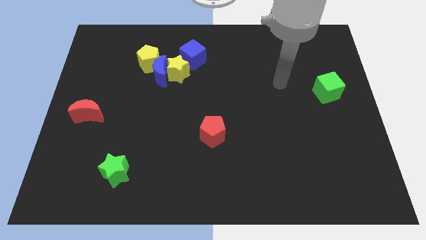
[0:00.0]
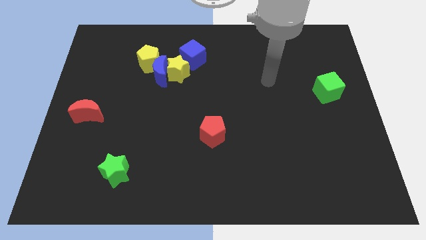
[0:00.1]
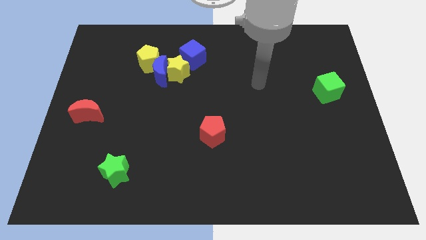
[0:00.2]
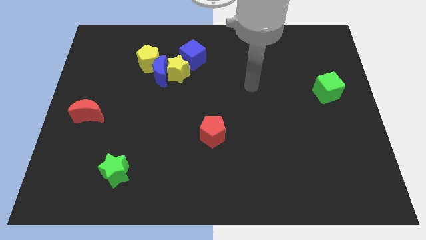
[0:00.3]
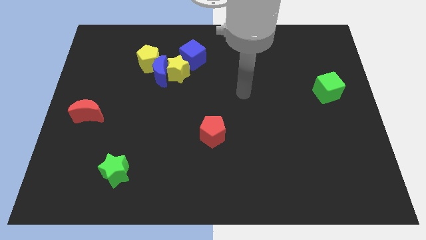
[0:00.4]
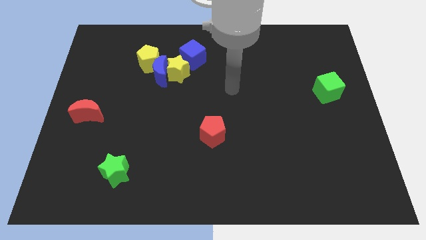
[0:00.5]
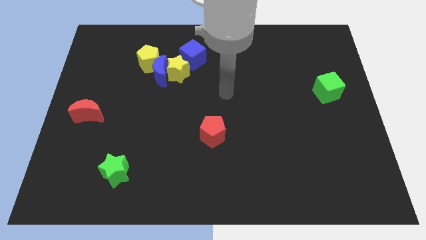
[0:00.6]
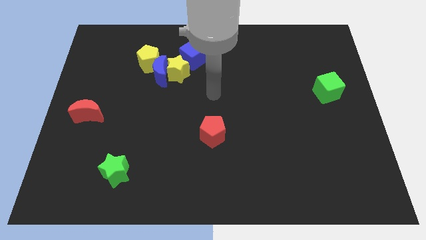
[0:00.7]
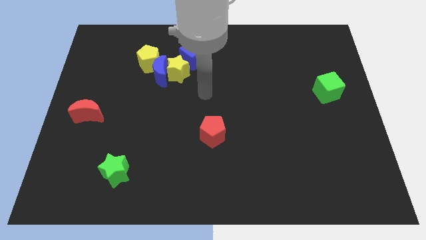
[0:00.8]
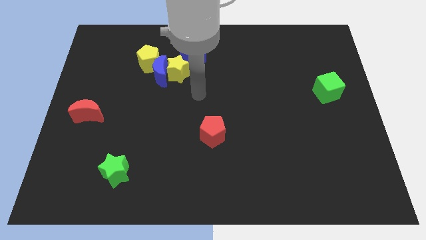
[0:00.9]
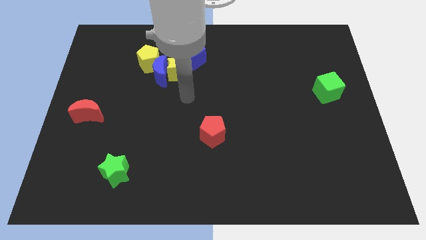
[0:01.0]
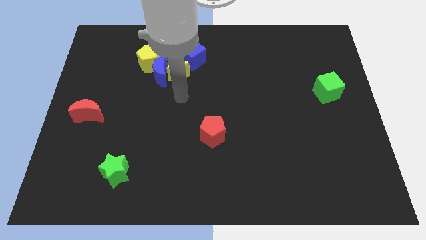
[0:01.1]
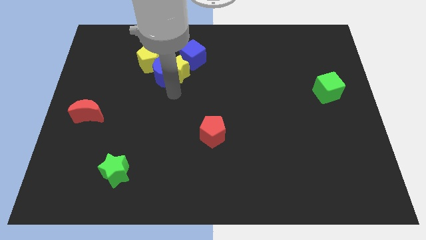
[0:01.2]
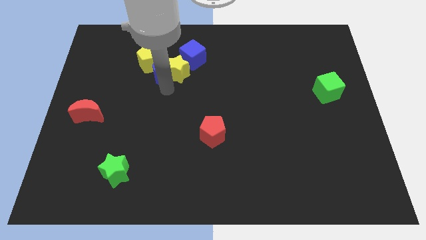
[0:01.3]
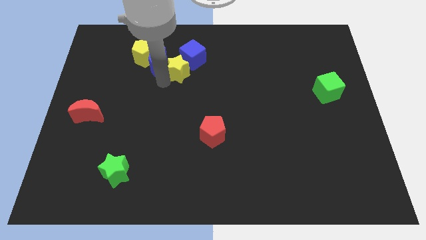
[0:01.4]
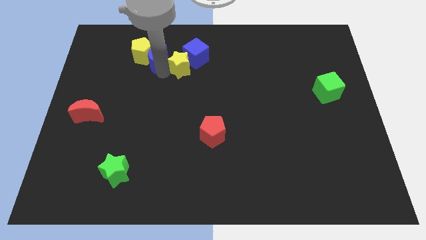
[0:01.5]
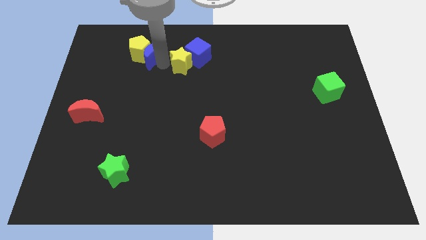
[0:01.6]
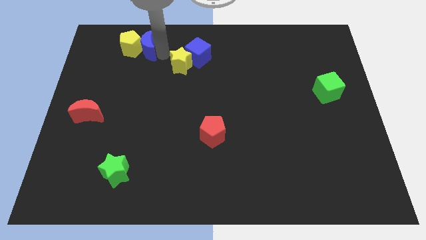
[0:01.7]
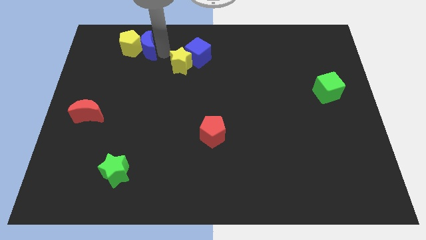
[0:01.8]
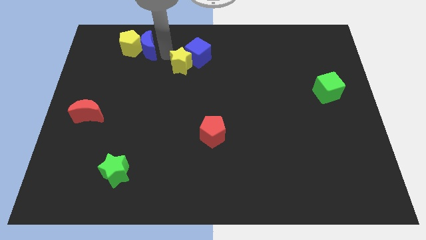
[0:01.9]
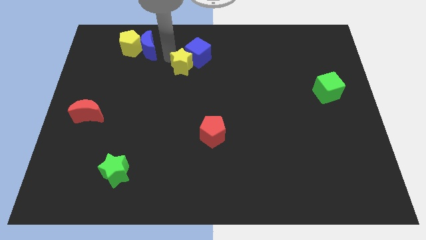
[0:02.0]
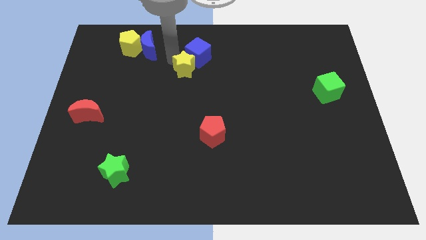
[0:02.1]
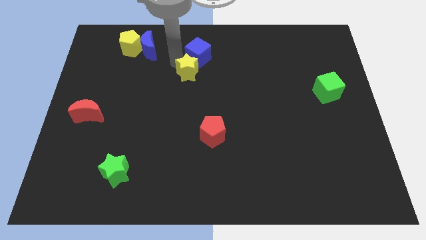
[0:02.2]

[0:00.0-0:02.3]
separate the yellow star from the blue moon, blue cube, and yellow pentagon

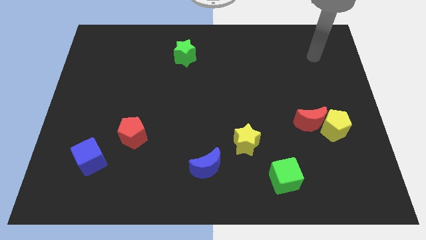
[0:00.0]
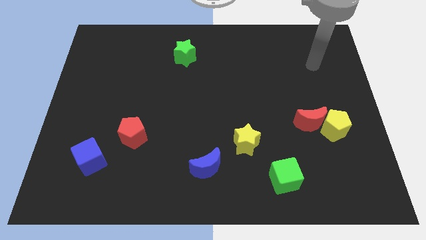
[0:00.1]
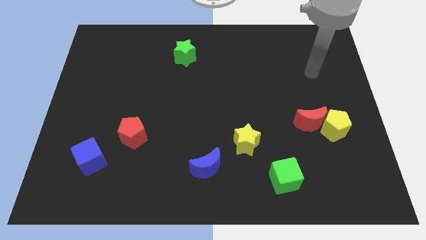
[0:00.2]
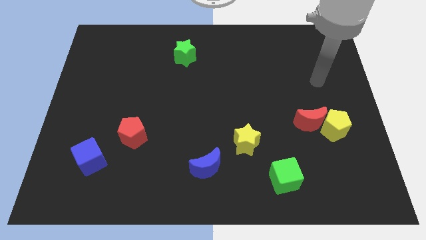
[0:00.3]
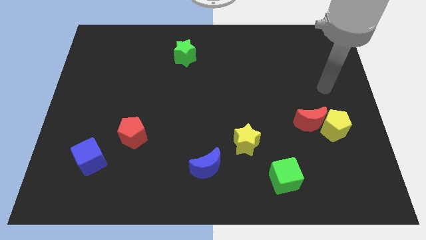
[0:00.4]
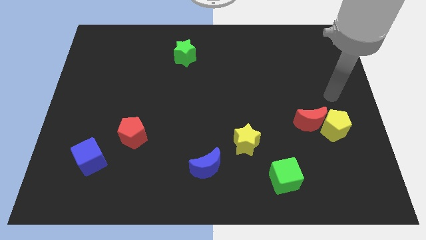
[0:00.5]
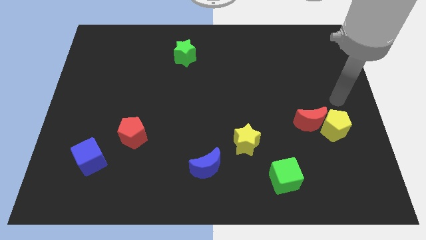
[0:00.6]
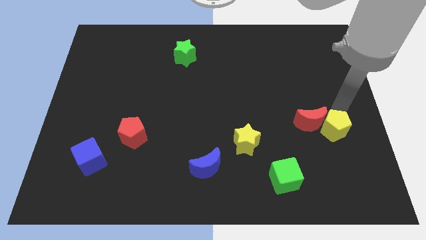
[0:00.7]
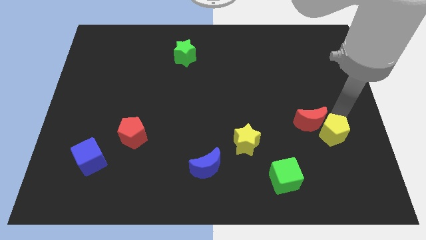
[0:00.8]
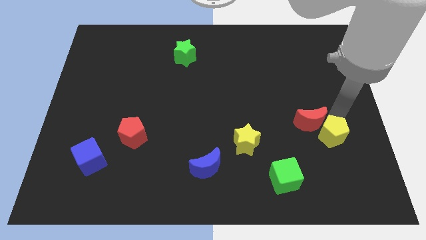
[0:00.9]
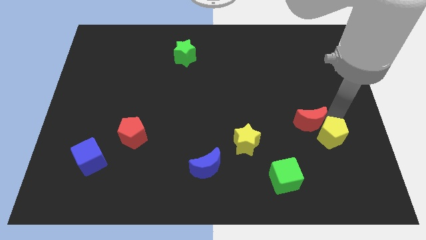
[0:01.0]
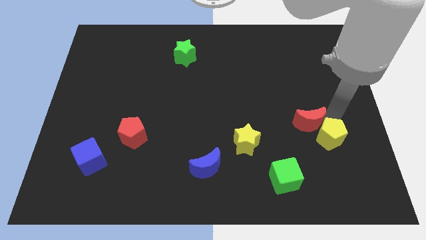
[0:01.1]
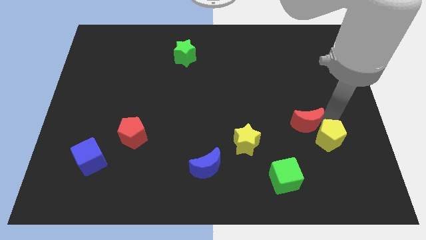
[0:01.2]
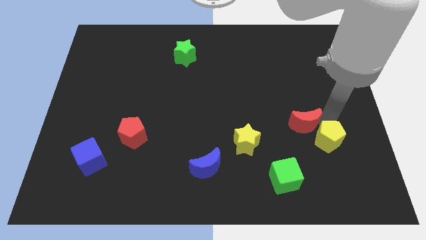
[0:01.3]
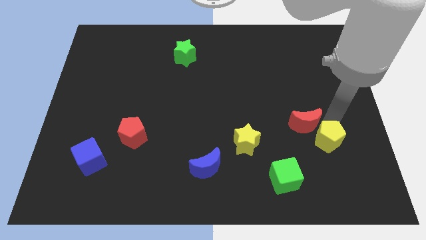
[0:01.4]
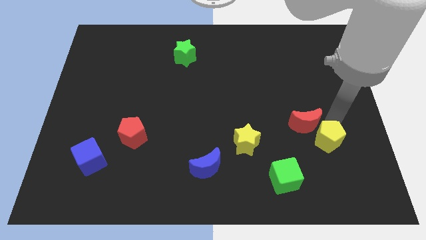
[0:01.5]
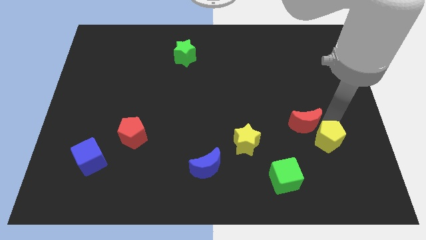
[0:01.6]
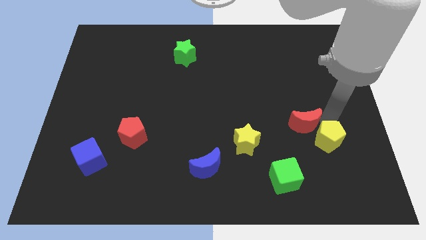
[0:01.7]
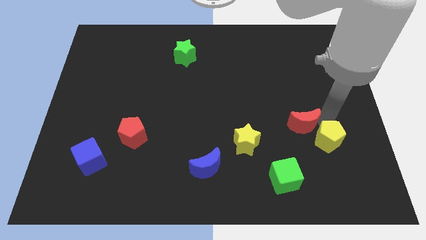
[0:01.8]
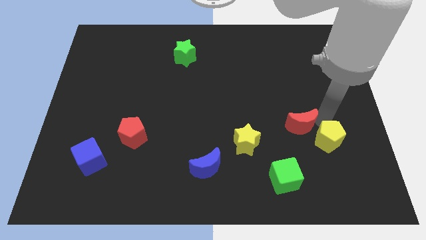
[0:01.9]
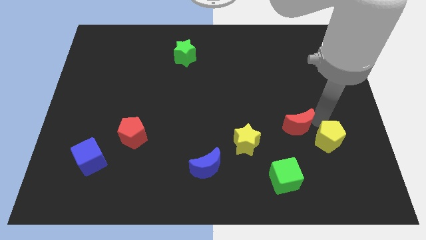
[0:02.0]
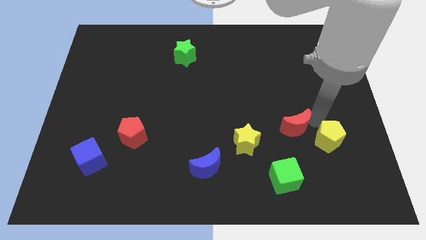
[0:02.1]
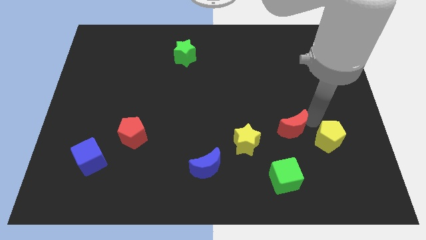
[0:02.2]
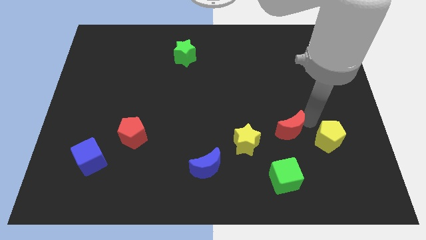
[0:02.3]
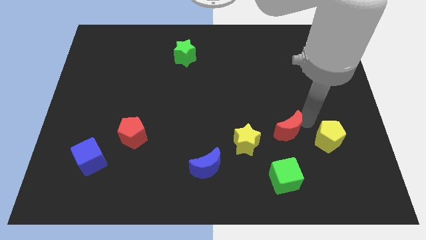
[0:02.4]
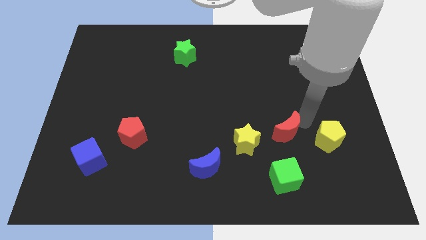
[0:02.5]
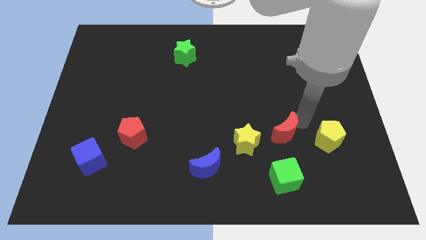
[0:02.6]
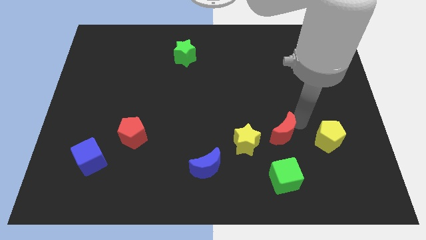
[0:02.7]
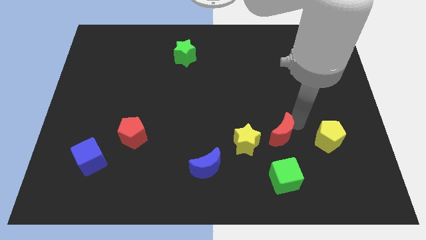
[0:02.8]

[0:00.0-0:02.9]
move the red moon away from the yellow pentagon

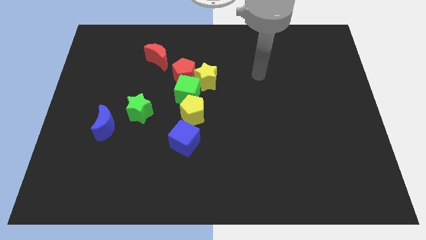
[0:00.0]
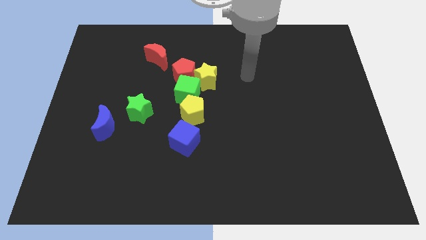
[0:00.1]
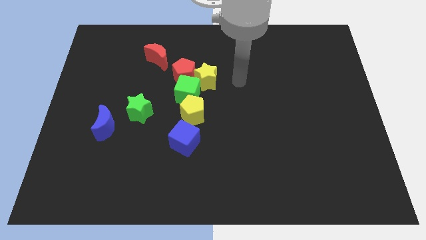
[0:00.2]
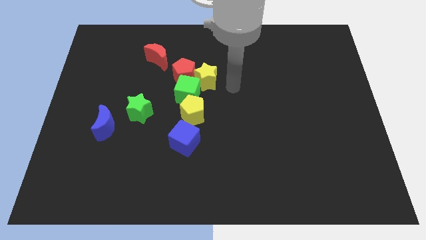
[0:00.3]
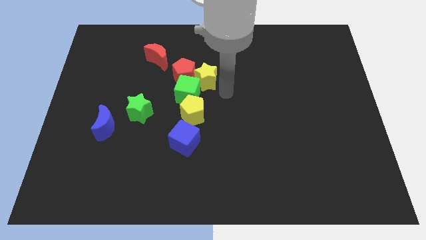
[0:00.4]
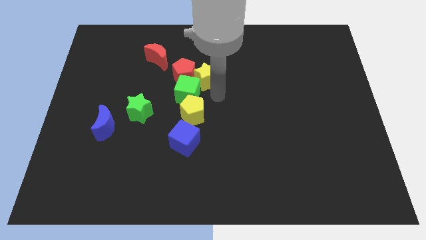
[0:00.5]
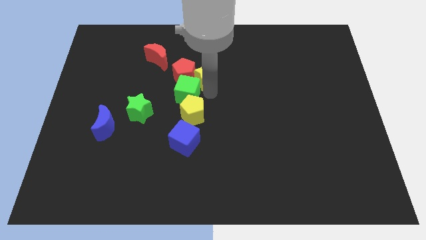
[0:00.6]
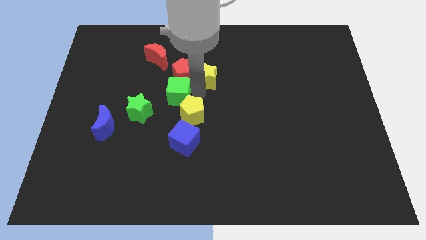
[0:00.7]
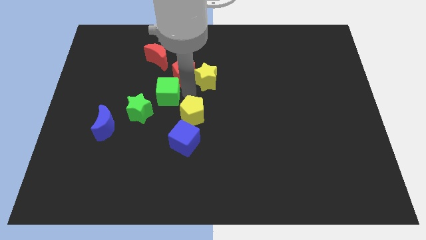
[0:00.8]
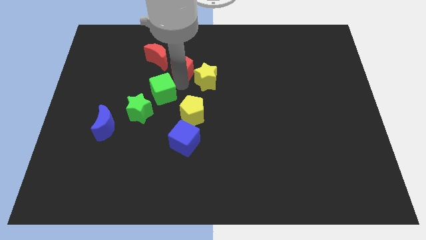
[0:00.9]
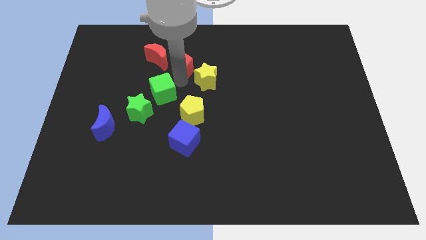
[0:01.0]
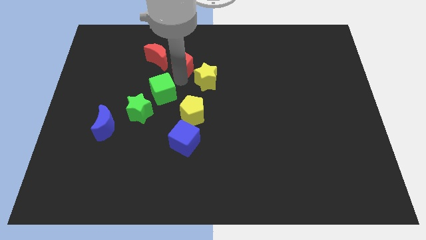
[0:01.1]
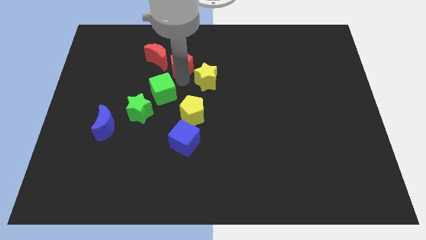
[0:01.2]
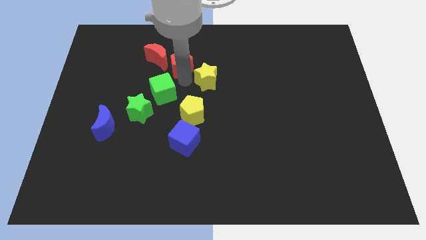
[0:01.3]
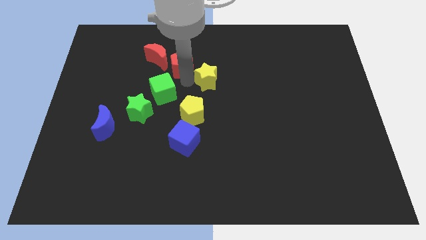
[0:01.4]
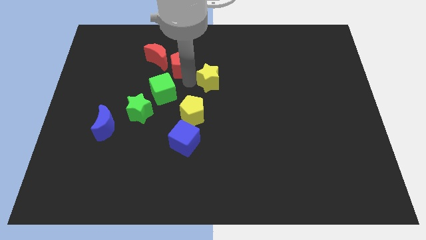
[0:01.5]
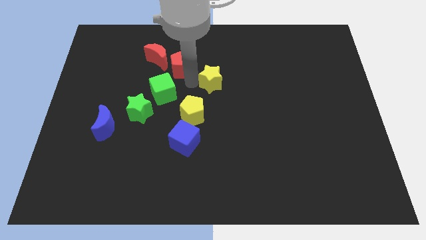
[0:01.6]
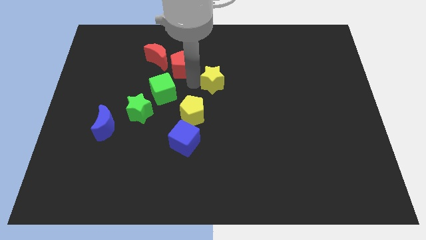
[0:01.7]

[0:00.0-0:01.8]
separate the yellow star from the red pentagon and green cube

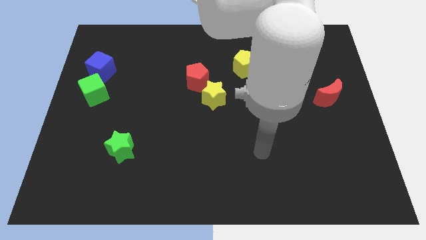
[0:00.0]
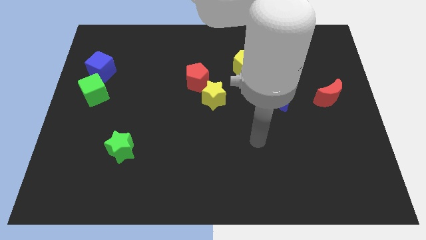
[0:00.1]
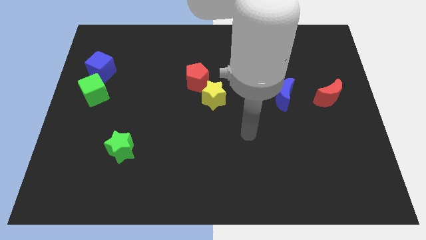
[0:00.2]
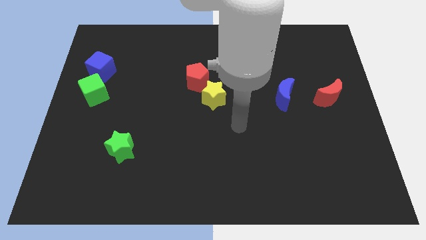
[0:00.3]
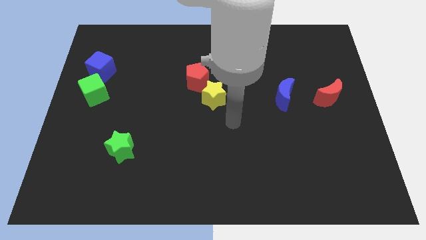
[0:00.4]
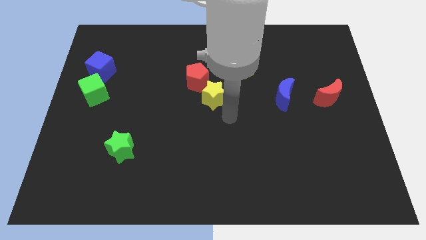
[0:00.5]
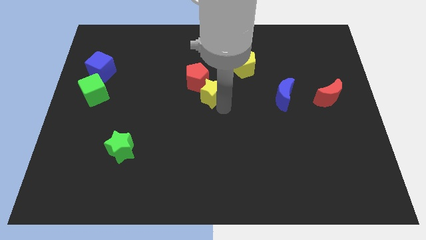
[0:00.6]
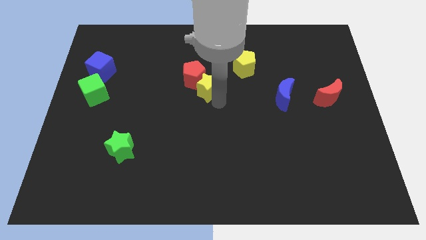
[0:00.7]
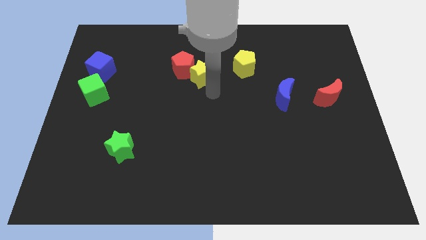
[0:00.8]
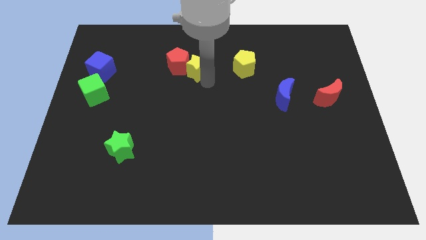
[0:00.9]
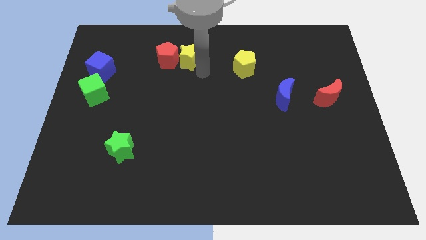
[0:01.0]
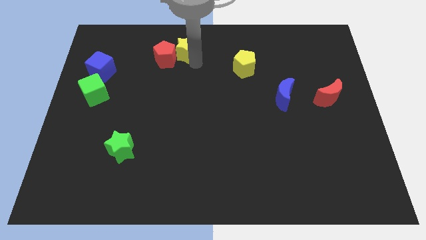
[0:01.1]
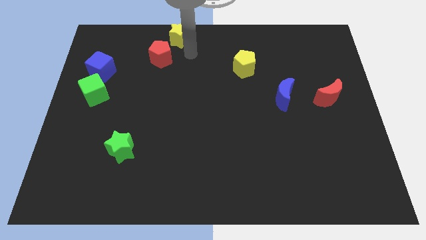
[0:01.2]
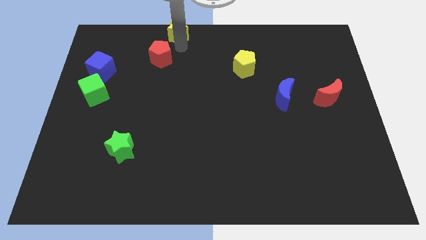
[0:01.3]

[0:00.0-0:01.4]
pull the red pentagon apart from the yellow star

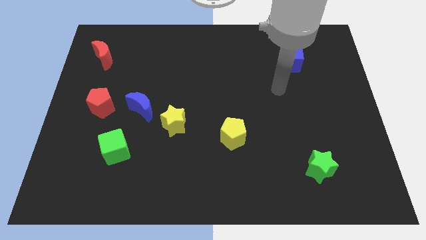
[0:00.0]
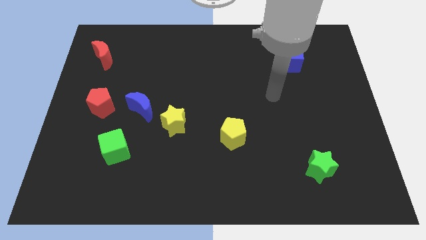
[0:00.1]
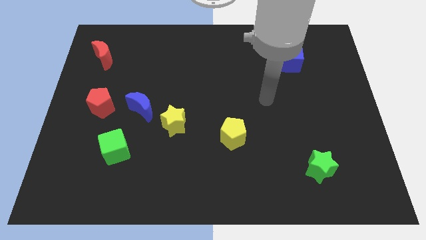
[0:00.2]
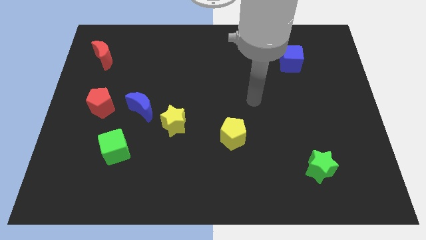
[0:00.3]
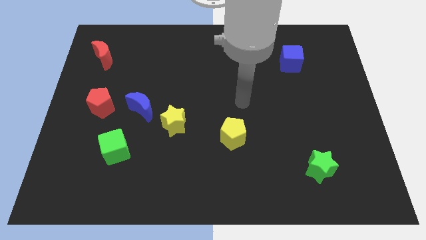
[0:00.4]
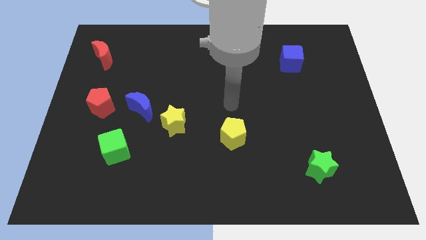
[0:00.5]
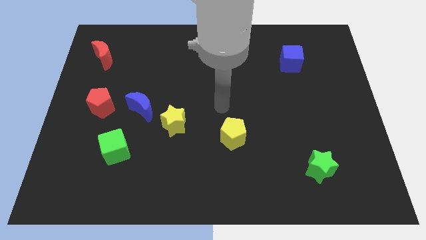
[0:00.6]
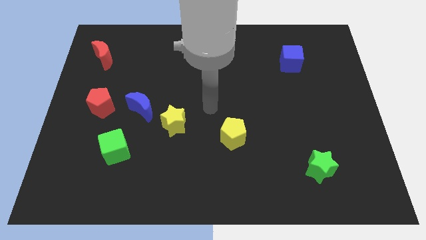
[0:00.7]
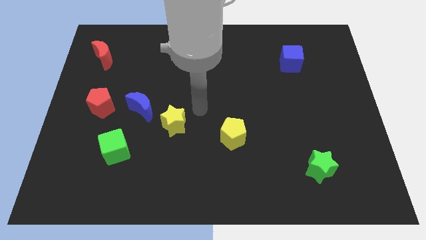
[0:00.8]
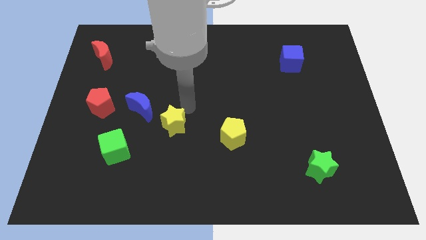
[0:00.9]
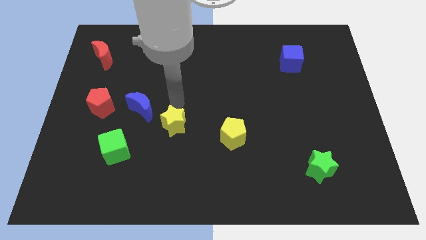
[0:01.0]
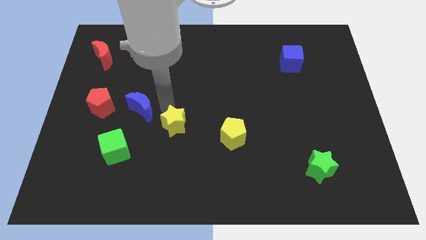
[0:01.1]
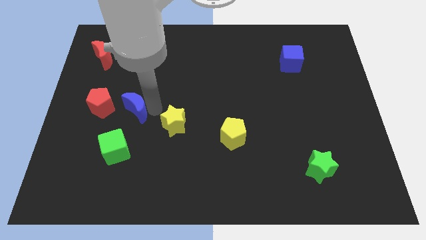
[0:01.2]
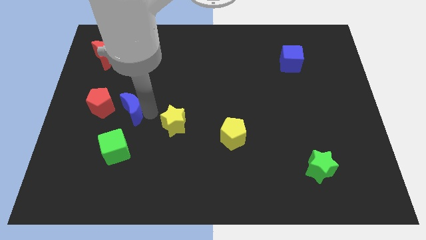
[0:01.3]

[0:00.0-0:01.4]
move the yellow star away from the blue moon
